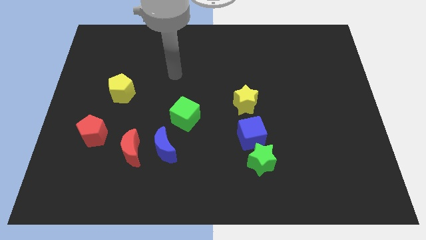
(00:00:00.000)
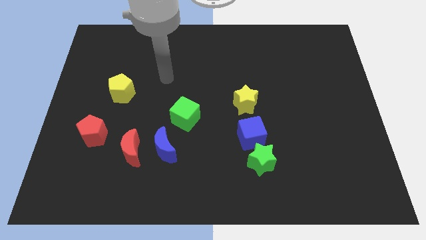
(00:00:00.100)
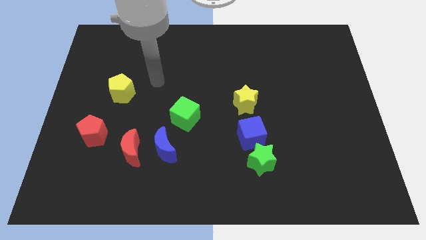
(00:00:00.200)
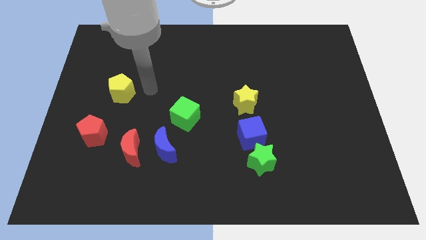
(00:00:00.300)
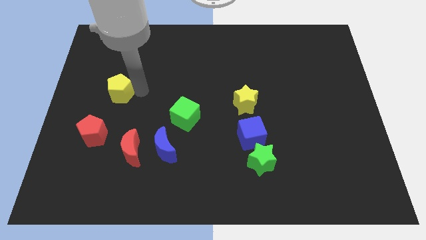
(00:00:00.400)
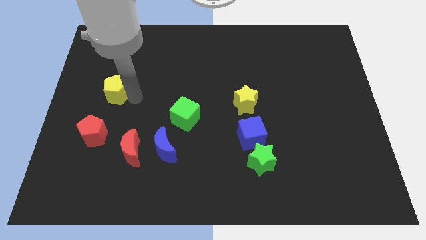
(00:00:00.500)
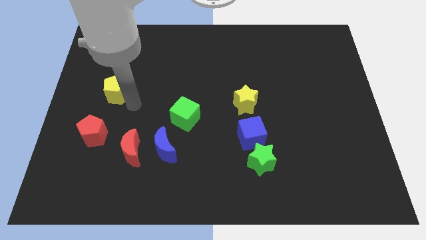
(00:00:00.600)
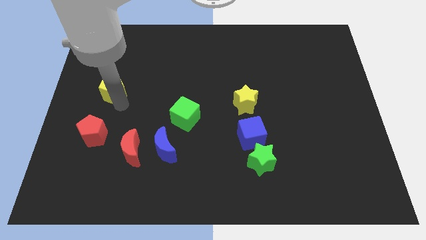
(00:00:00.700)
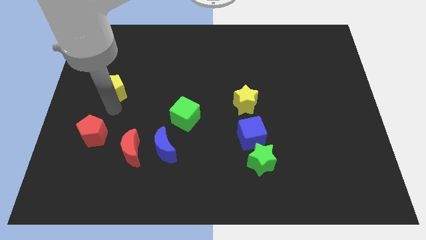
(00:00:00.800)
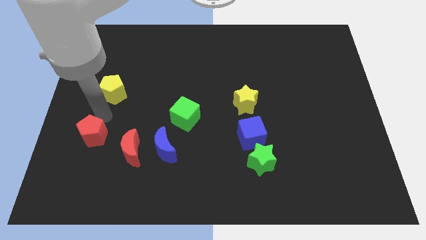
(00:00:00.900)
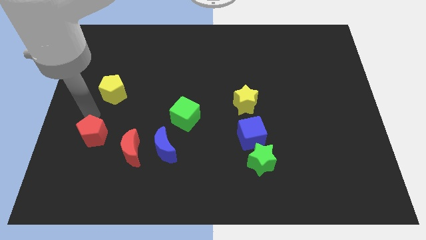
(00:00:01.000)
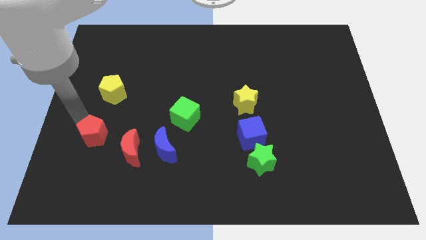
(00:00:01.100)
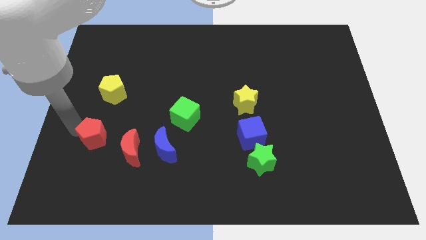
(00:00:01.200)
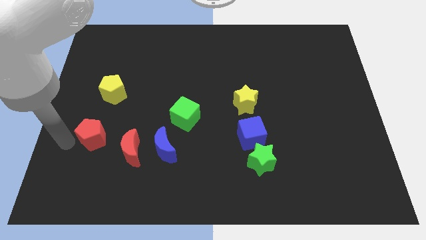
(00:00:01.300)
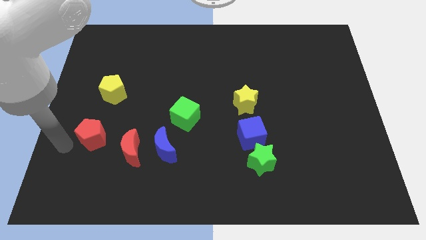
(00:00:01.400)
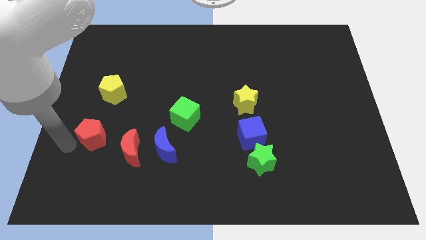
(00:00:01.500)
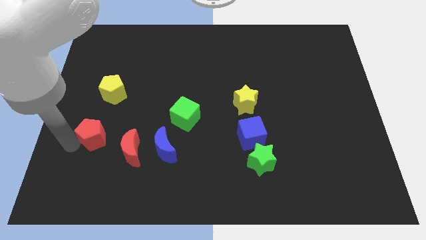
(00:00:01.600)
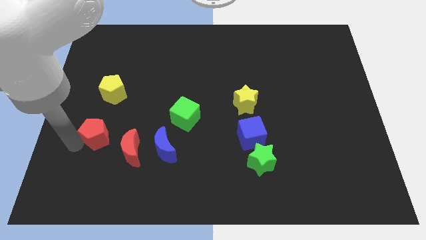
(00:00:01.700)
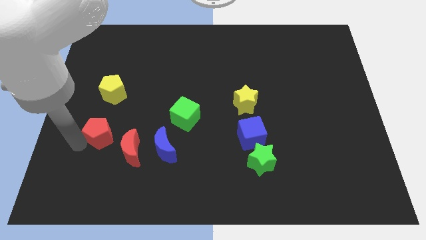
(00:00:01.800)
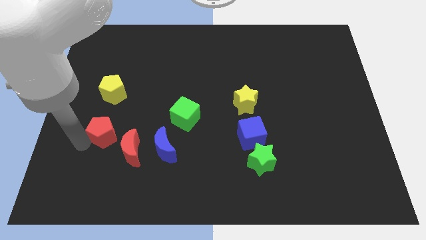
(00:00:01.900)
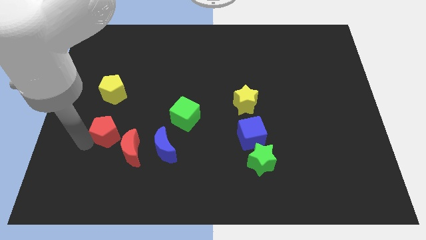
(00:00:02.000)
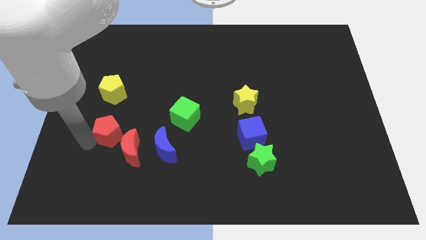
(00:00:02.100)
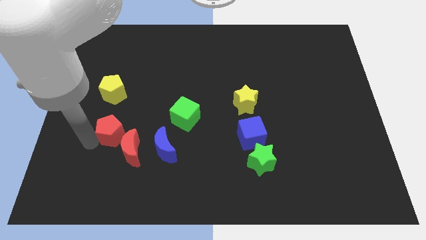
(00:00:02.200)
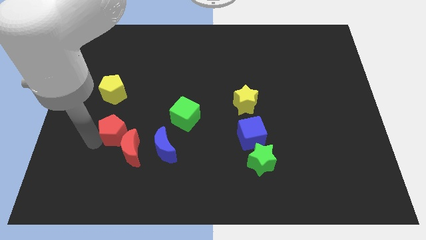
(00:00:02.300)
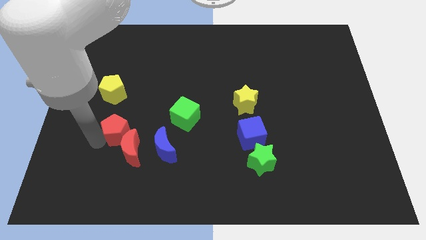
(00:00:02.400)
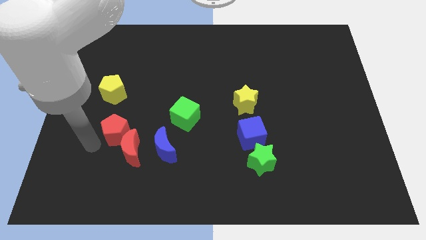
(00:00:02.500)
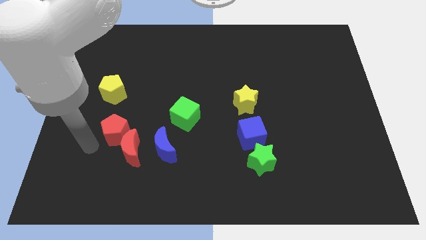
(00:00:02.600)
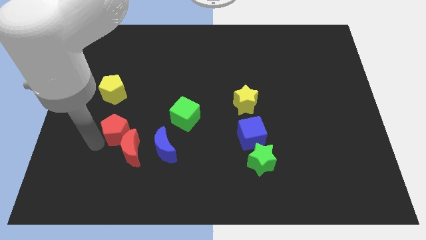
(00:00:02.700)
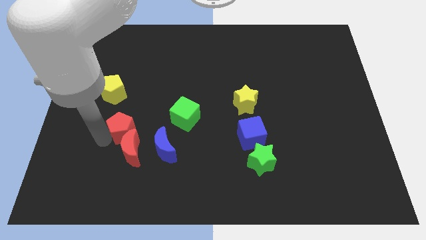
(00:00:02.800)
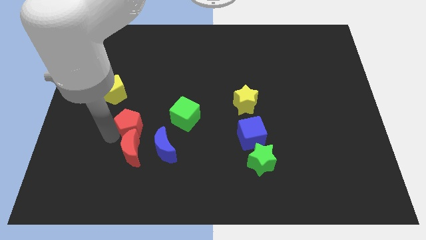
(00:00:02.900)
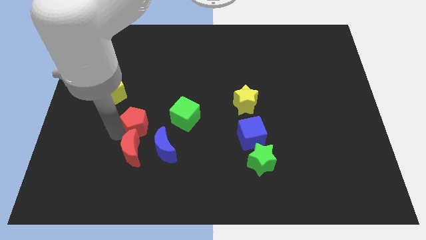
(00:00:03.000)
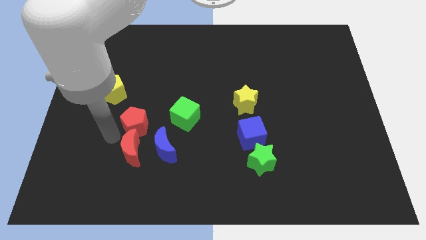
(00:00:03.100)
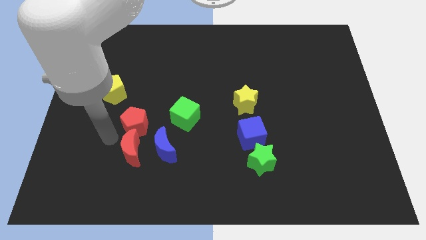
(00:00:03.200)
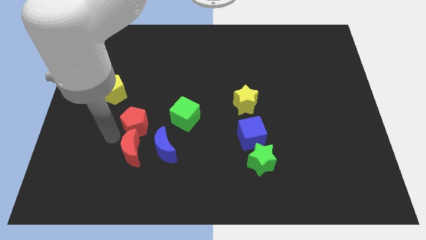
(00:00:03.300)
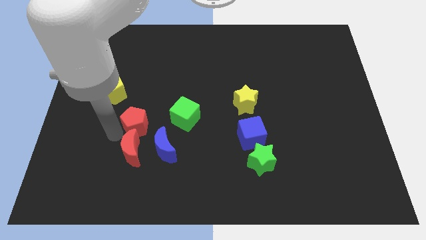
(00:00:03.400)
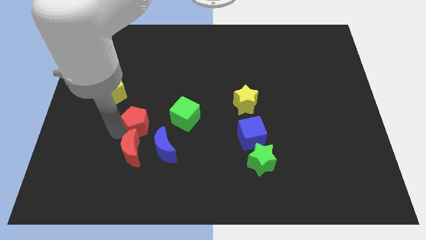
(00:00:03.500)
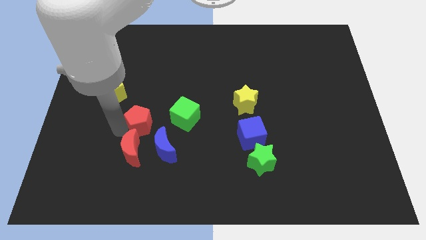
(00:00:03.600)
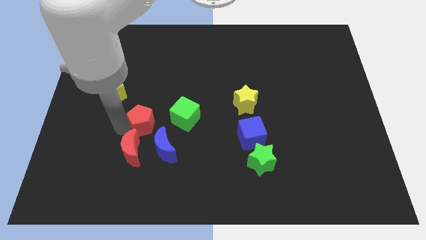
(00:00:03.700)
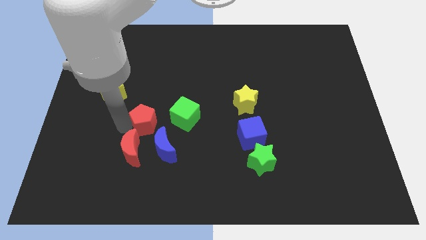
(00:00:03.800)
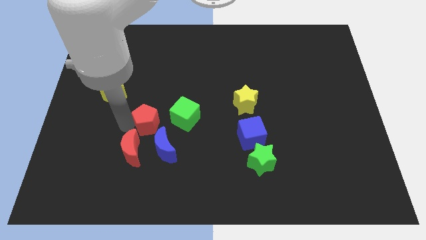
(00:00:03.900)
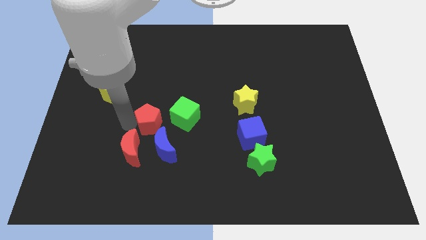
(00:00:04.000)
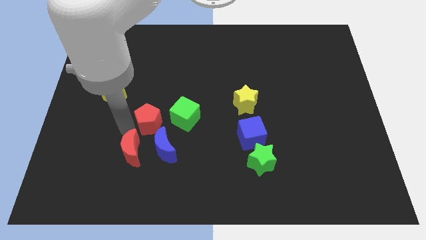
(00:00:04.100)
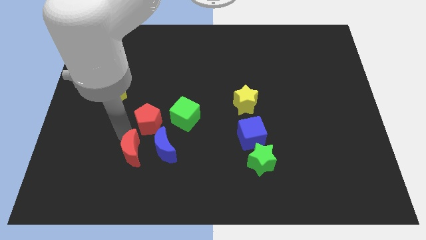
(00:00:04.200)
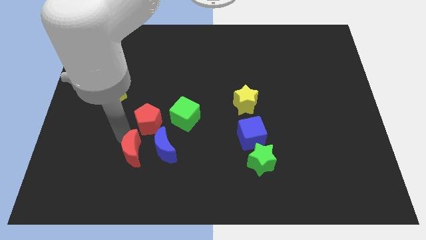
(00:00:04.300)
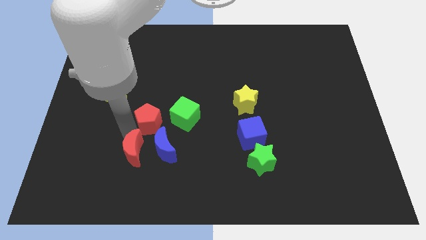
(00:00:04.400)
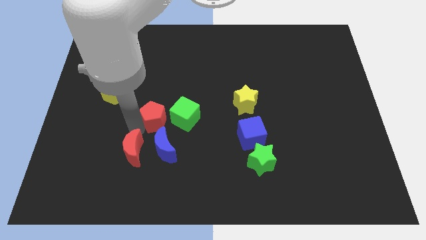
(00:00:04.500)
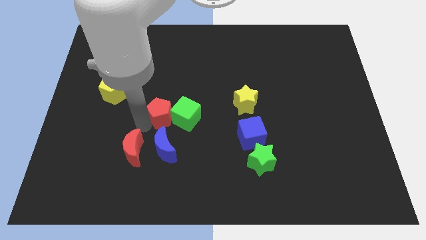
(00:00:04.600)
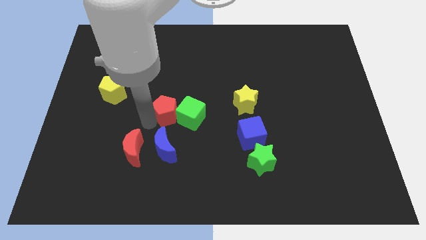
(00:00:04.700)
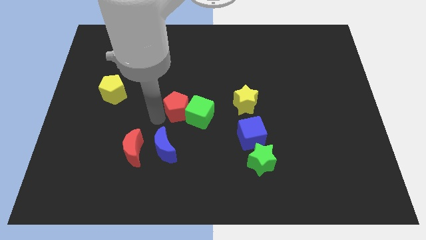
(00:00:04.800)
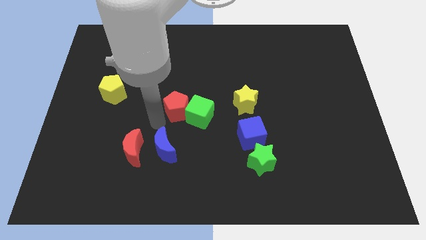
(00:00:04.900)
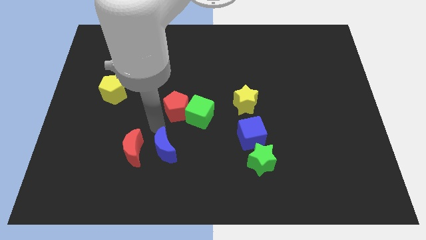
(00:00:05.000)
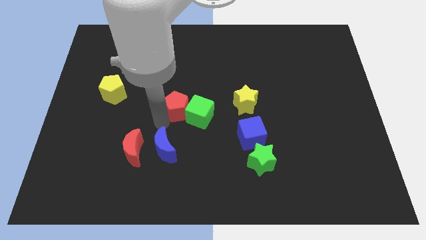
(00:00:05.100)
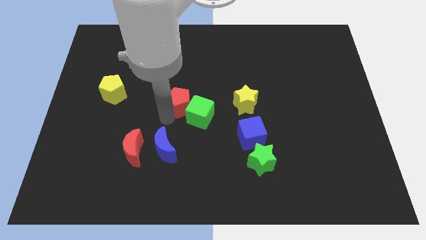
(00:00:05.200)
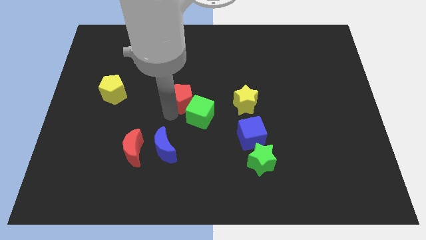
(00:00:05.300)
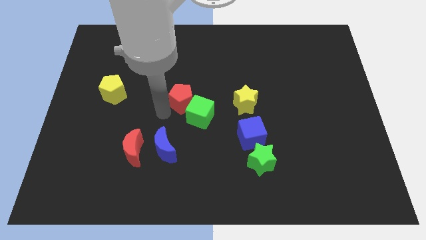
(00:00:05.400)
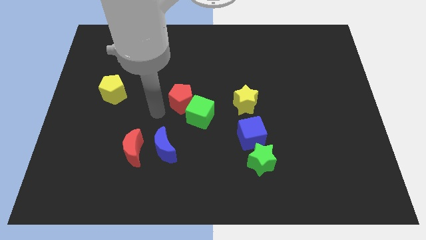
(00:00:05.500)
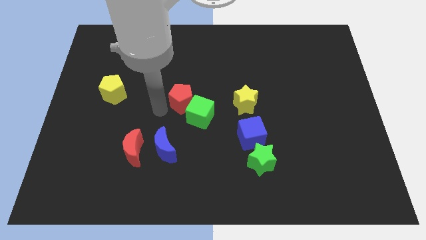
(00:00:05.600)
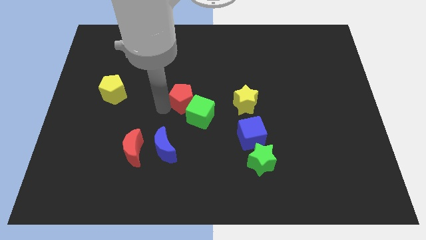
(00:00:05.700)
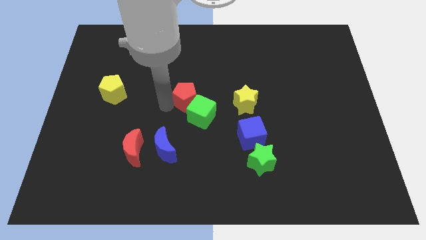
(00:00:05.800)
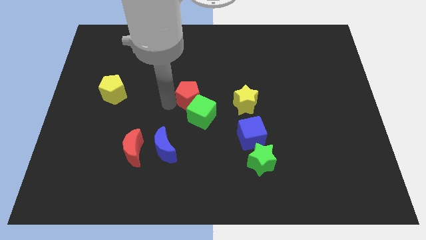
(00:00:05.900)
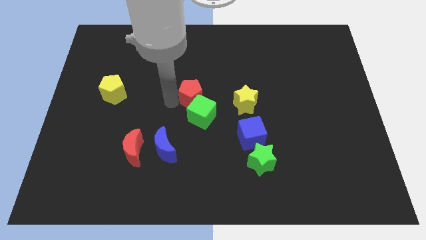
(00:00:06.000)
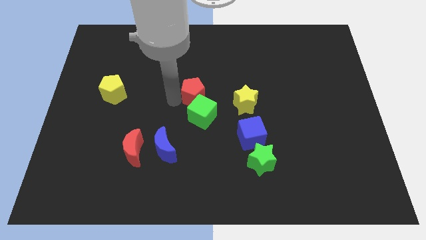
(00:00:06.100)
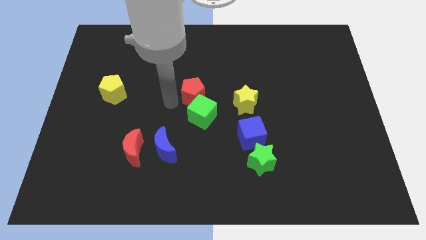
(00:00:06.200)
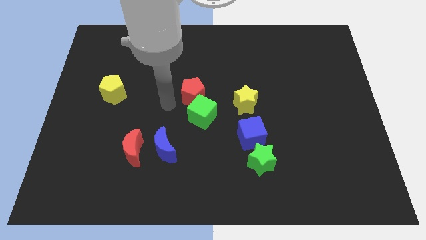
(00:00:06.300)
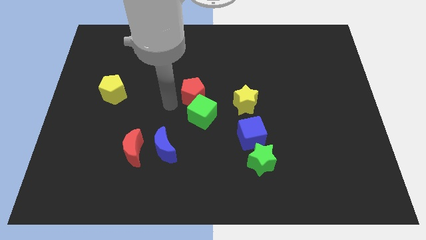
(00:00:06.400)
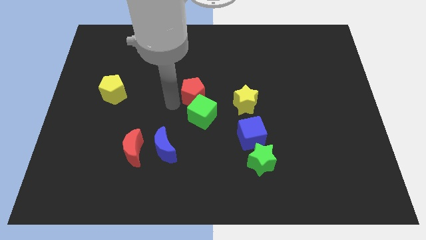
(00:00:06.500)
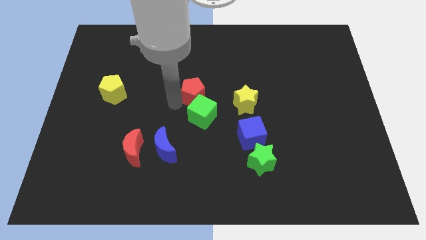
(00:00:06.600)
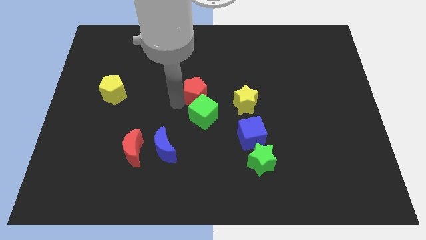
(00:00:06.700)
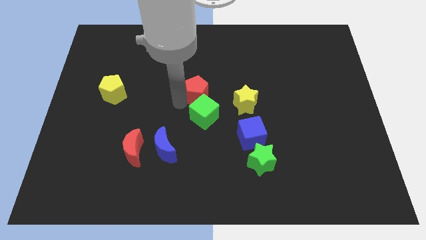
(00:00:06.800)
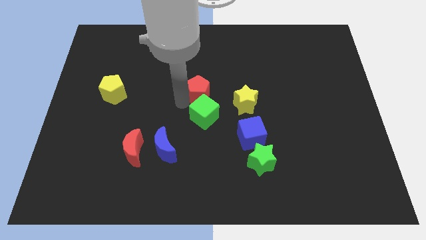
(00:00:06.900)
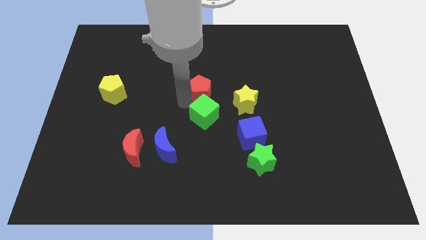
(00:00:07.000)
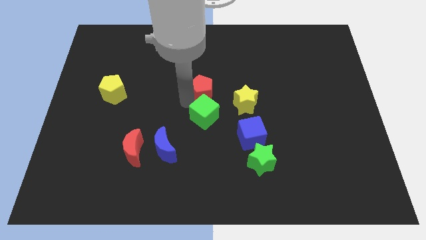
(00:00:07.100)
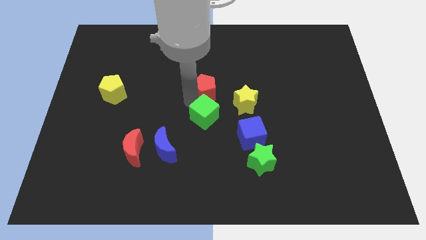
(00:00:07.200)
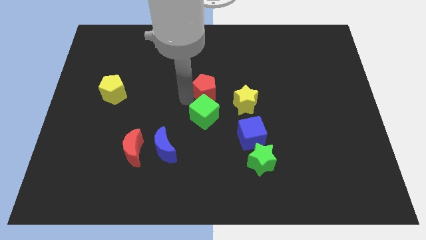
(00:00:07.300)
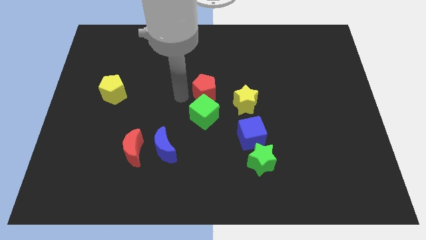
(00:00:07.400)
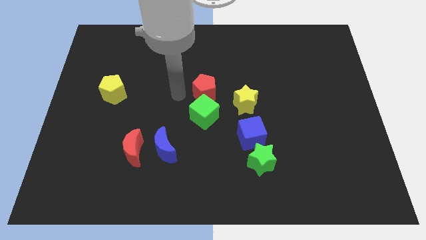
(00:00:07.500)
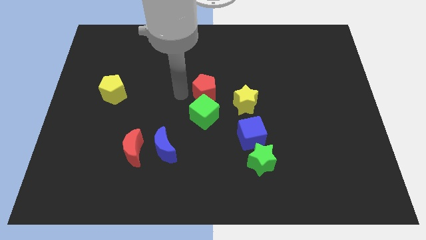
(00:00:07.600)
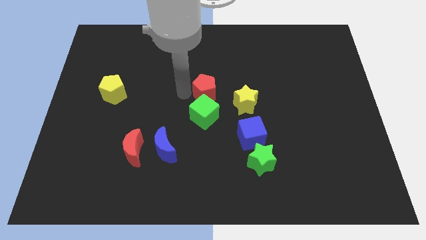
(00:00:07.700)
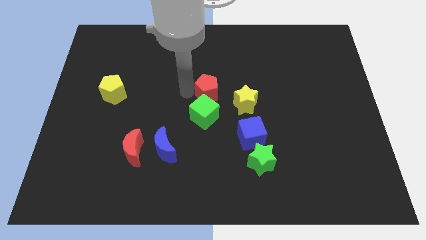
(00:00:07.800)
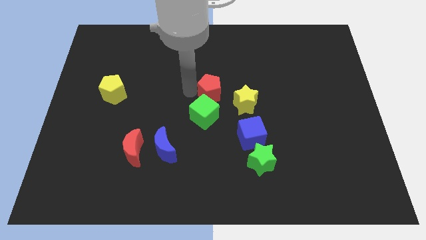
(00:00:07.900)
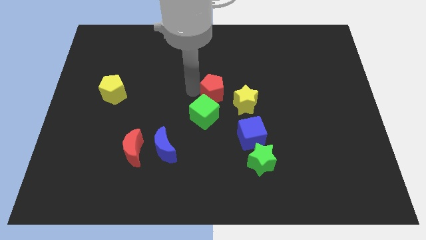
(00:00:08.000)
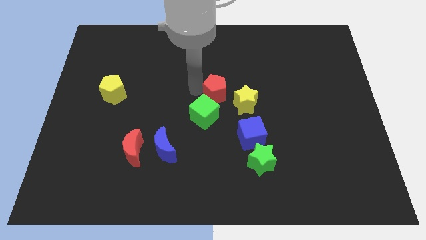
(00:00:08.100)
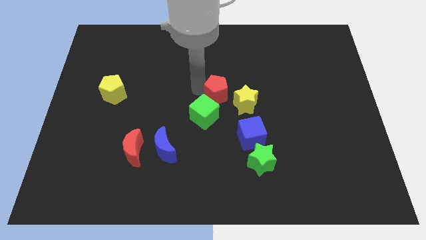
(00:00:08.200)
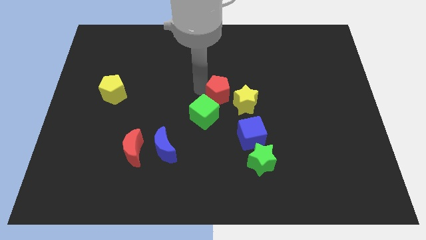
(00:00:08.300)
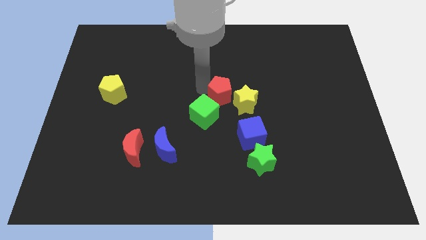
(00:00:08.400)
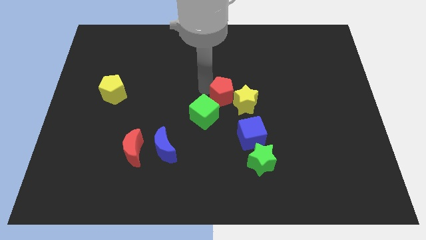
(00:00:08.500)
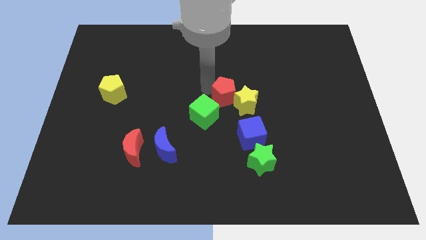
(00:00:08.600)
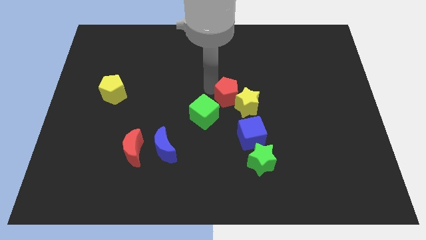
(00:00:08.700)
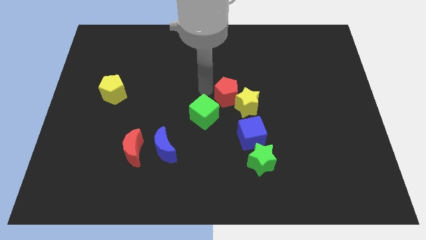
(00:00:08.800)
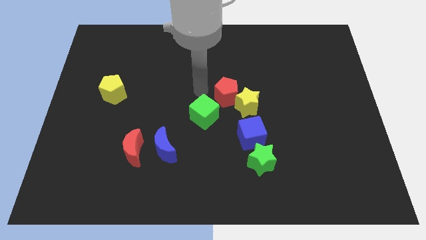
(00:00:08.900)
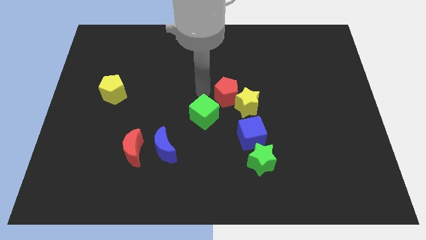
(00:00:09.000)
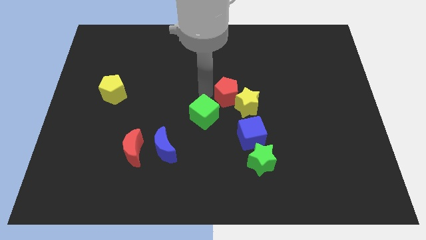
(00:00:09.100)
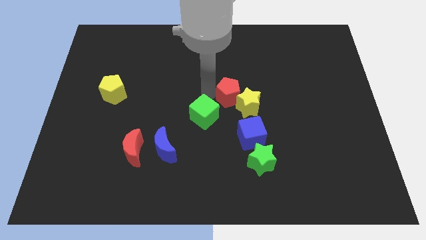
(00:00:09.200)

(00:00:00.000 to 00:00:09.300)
move the red pentagon above the blue cube
